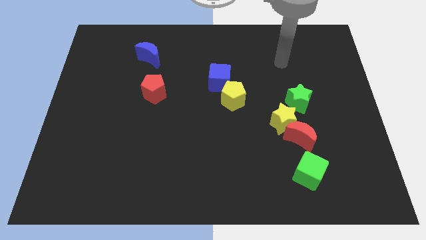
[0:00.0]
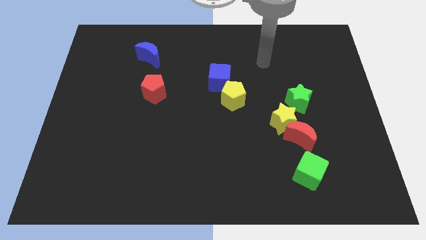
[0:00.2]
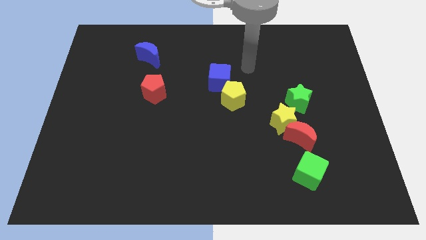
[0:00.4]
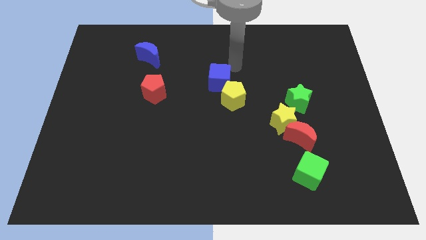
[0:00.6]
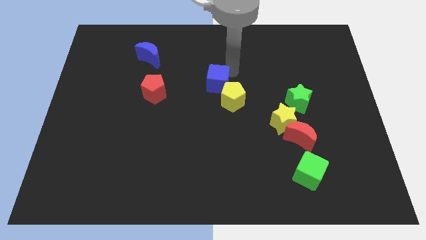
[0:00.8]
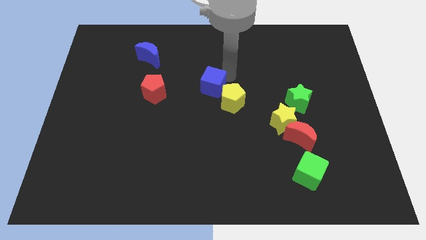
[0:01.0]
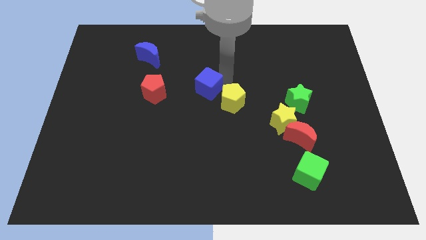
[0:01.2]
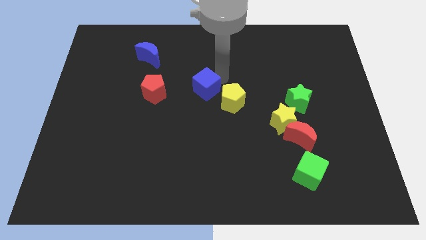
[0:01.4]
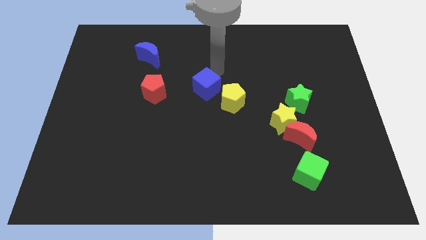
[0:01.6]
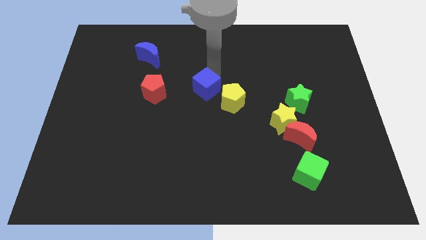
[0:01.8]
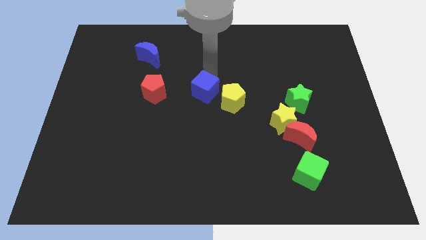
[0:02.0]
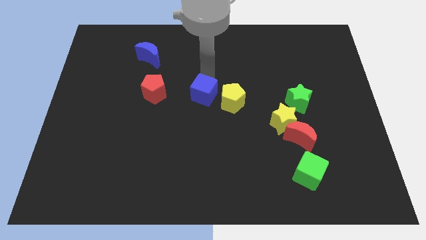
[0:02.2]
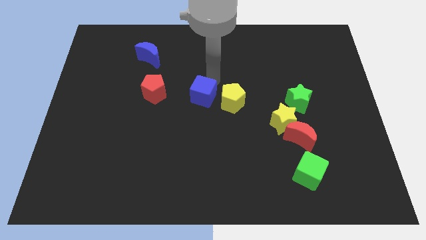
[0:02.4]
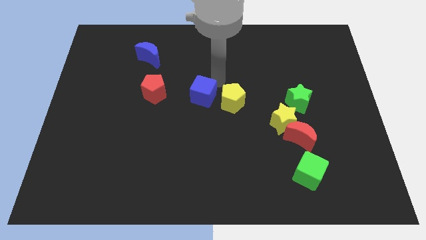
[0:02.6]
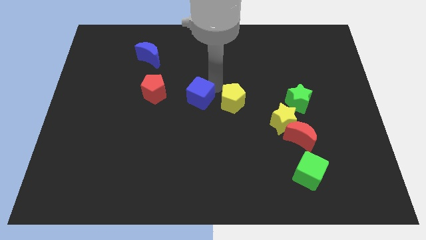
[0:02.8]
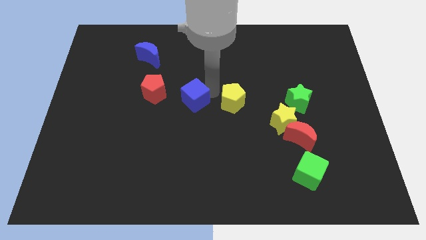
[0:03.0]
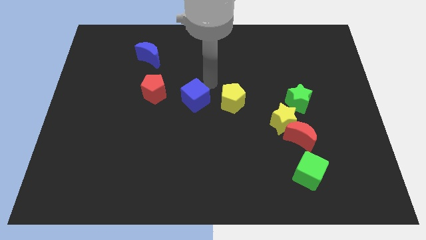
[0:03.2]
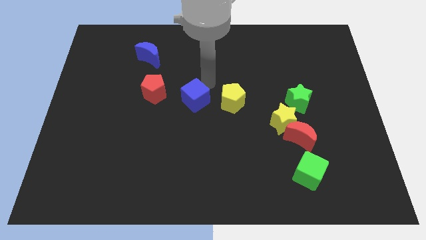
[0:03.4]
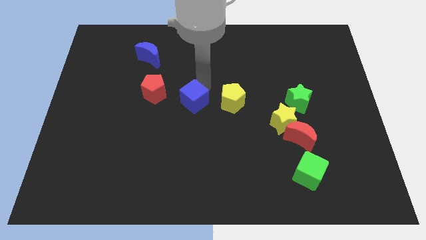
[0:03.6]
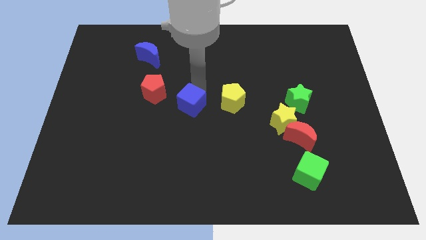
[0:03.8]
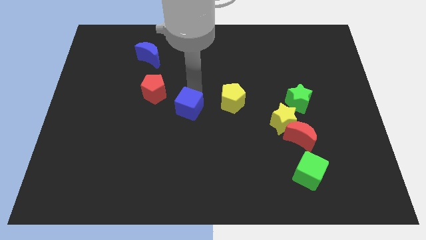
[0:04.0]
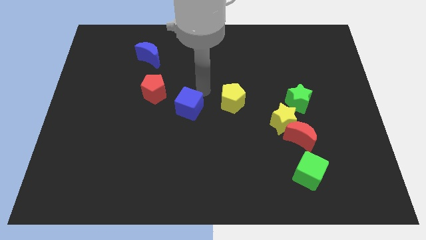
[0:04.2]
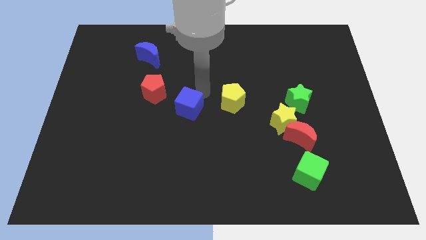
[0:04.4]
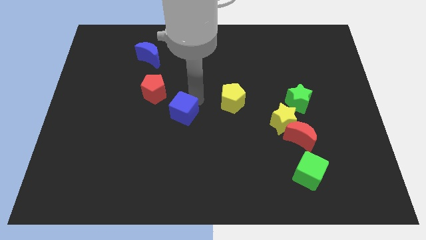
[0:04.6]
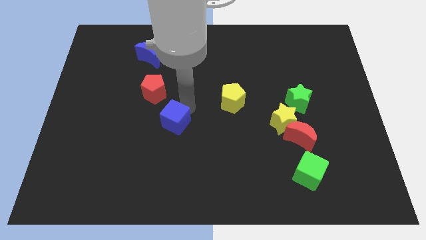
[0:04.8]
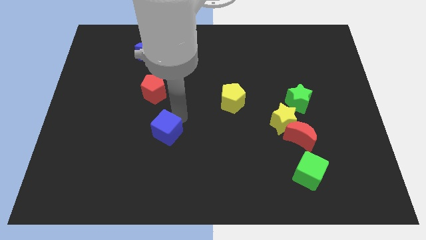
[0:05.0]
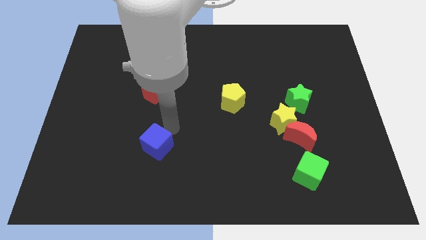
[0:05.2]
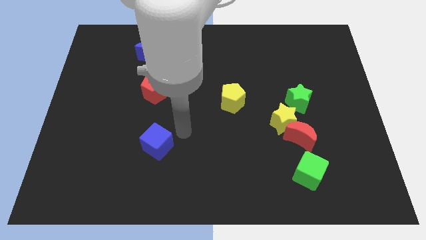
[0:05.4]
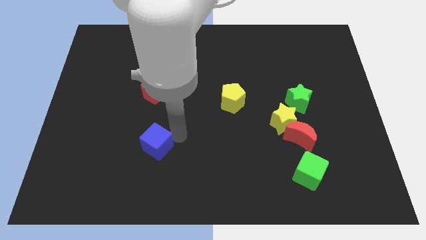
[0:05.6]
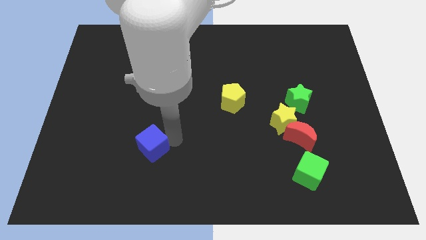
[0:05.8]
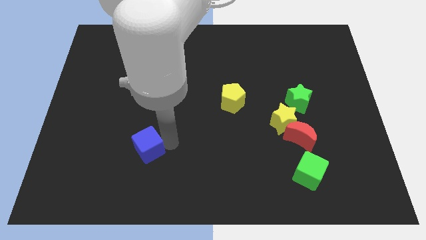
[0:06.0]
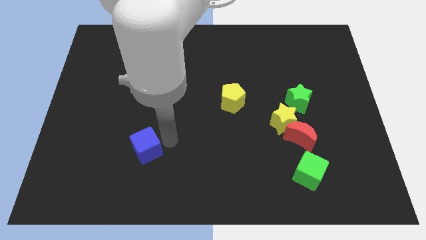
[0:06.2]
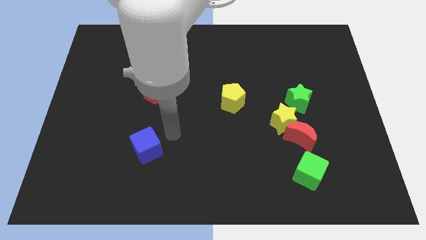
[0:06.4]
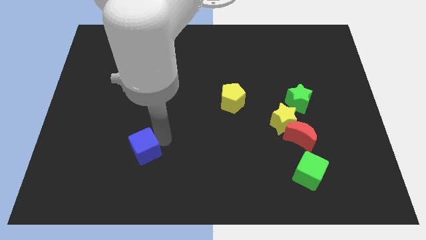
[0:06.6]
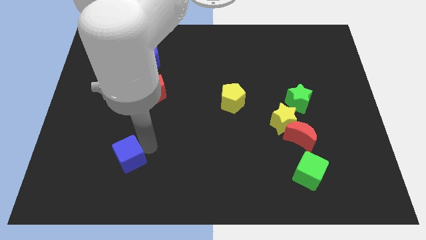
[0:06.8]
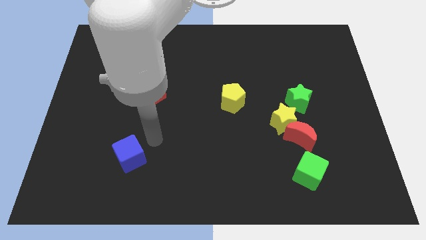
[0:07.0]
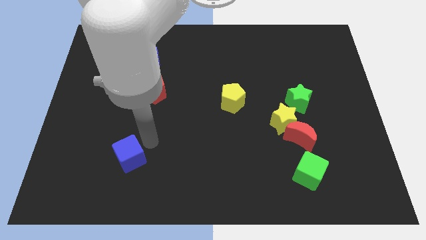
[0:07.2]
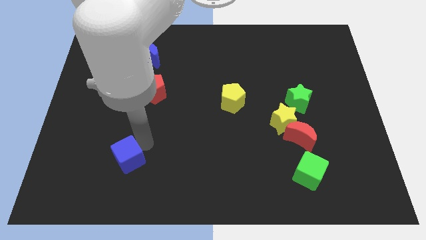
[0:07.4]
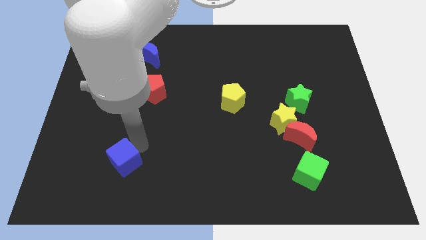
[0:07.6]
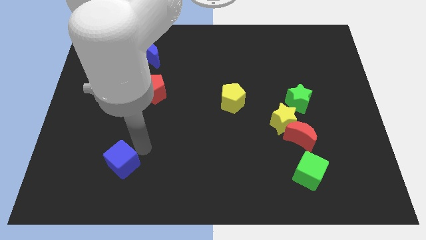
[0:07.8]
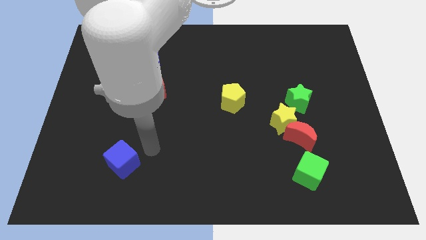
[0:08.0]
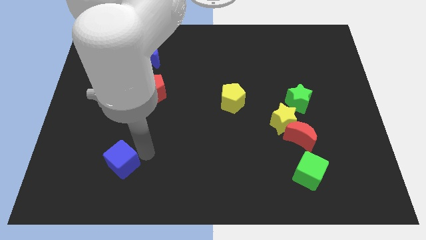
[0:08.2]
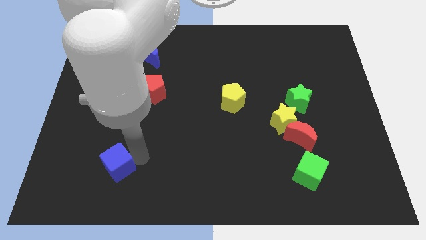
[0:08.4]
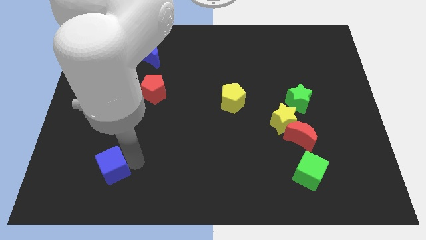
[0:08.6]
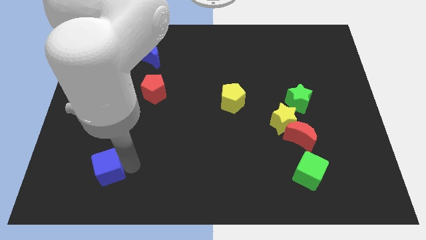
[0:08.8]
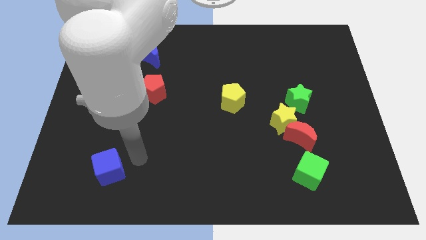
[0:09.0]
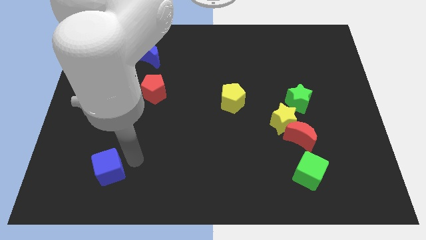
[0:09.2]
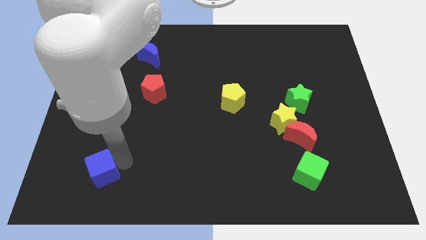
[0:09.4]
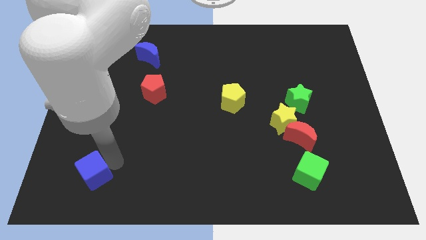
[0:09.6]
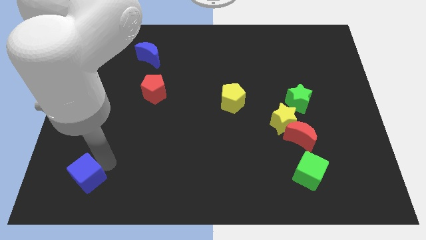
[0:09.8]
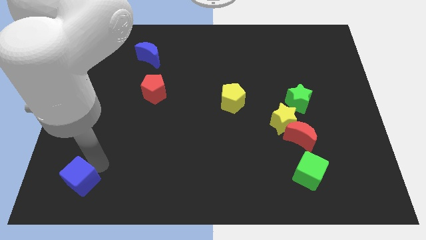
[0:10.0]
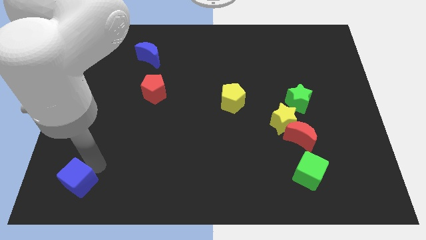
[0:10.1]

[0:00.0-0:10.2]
slide the blue cube to the bottom left of the board
